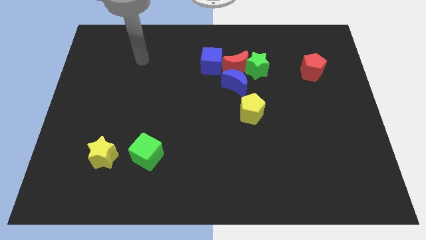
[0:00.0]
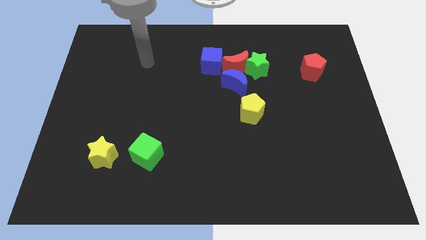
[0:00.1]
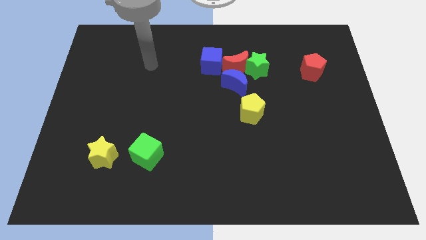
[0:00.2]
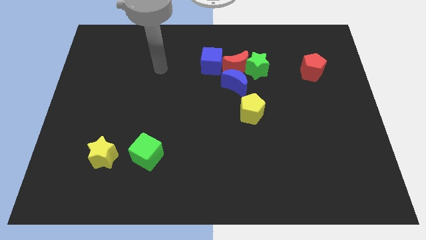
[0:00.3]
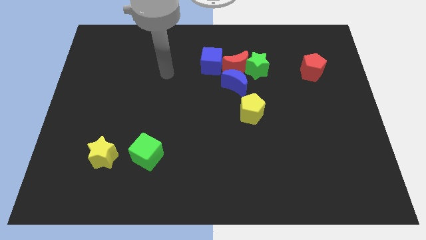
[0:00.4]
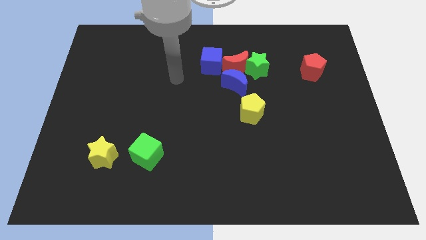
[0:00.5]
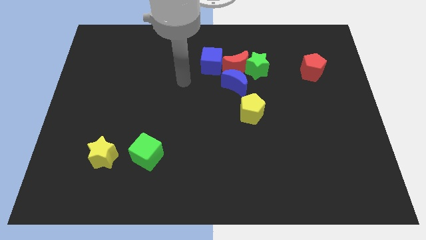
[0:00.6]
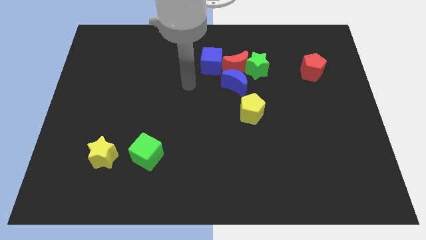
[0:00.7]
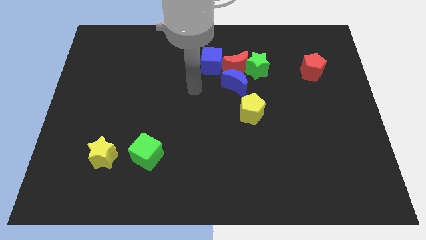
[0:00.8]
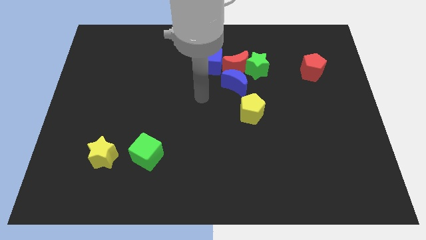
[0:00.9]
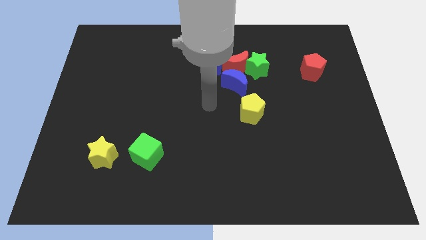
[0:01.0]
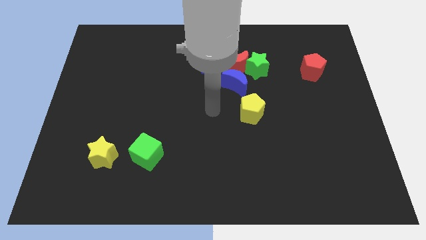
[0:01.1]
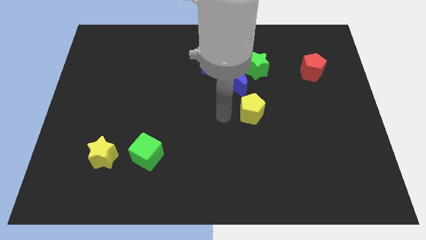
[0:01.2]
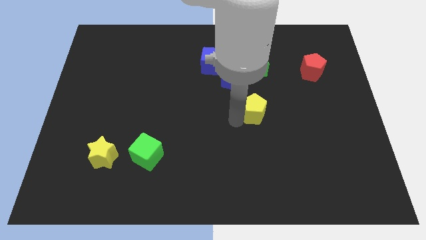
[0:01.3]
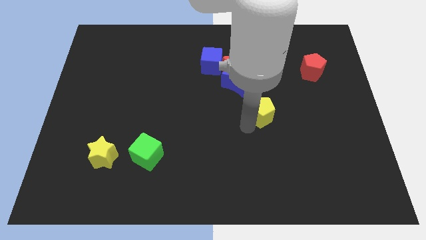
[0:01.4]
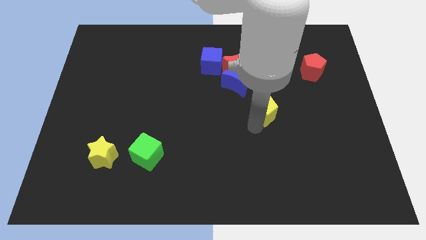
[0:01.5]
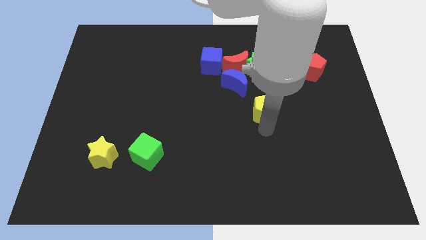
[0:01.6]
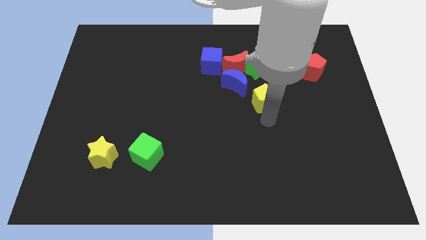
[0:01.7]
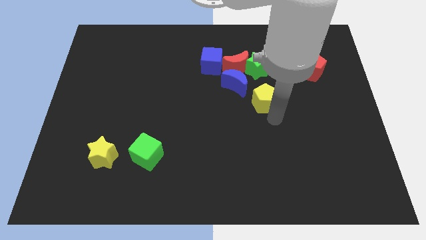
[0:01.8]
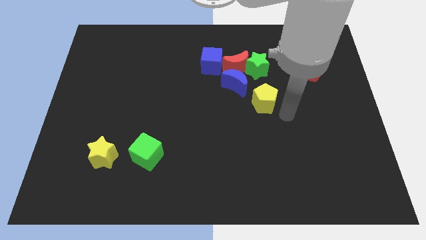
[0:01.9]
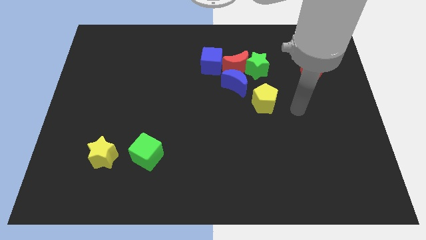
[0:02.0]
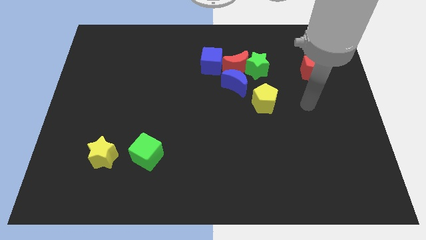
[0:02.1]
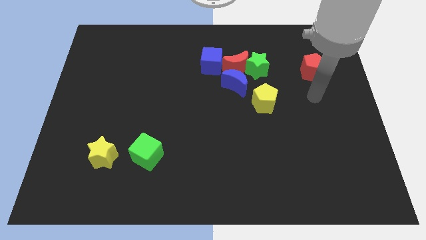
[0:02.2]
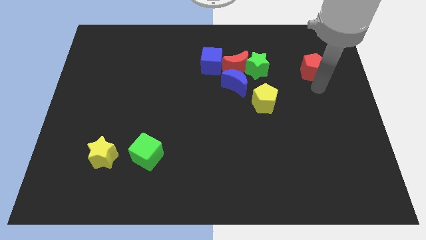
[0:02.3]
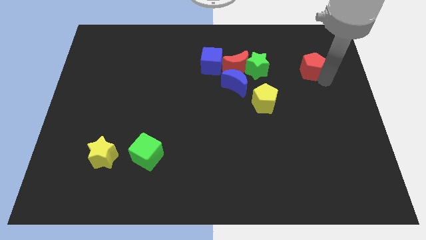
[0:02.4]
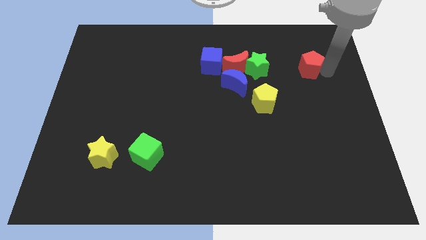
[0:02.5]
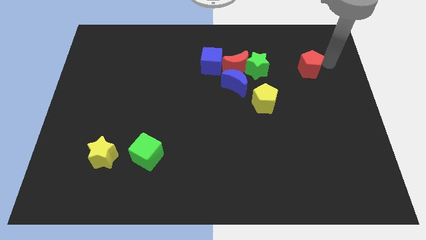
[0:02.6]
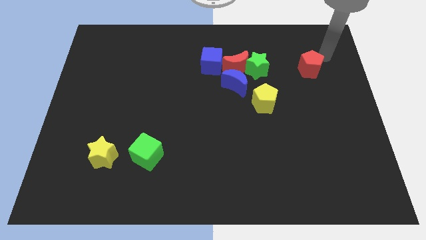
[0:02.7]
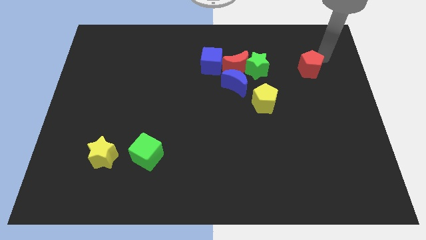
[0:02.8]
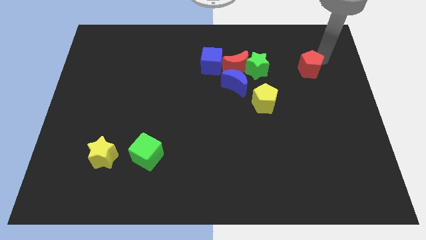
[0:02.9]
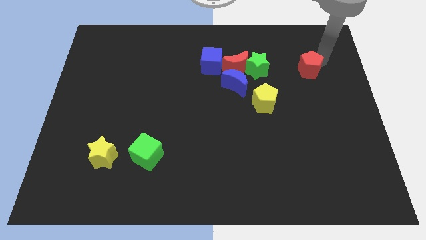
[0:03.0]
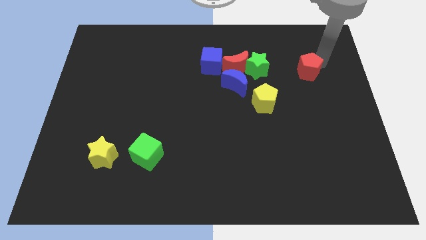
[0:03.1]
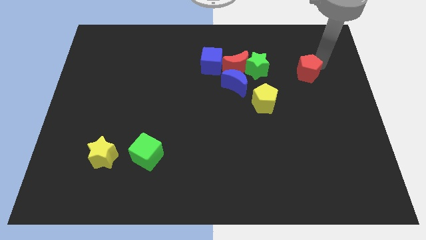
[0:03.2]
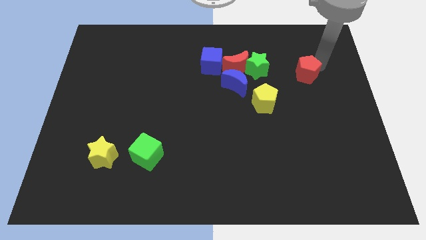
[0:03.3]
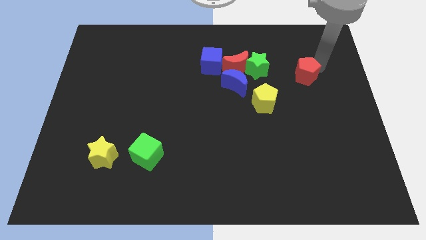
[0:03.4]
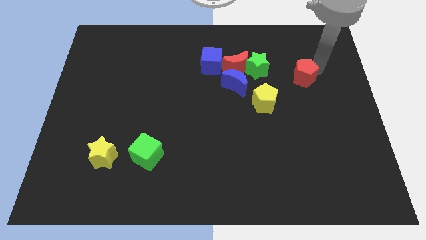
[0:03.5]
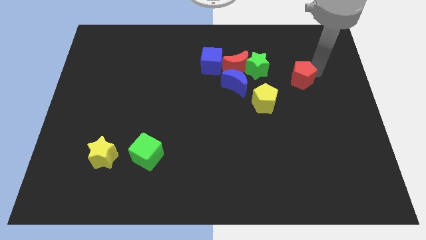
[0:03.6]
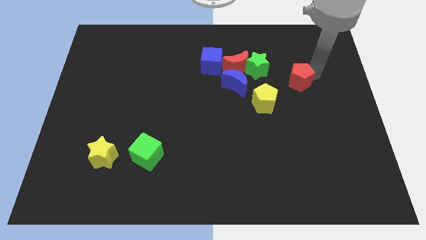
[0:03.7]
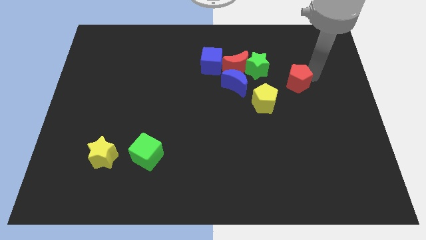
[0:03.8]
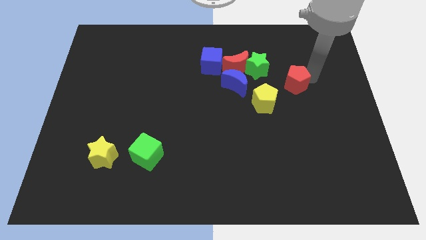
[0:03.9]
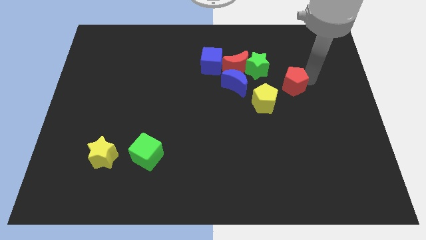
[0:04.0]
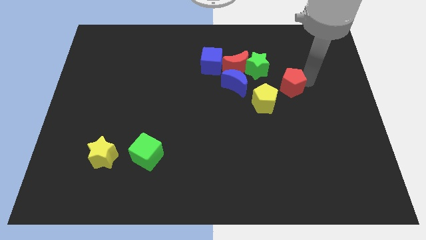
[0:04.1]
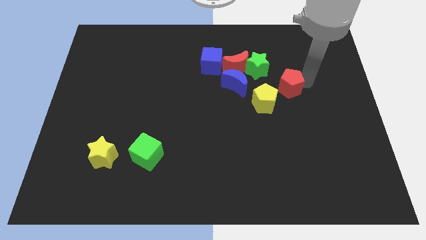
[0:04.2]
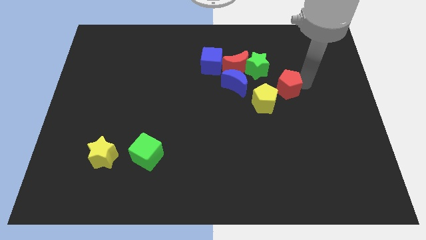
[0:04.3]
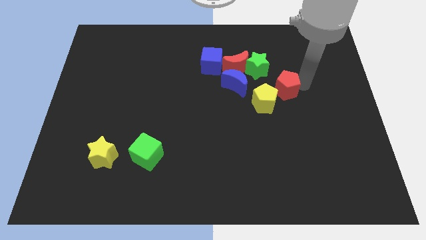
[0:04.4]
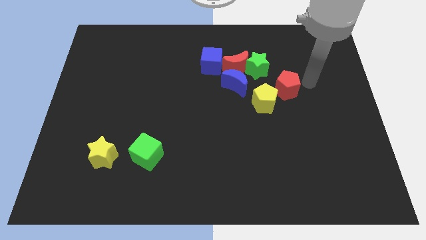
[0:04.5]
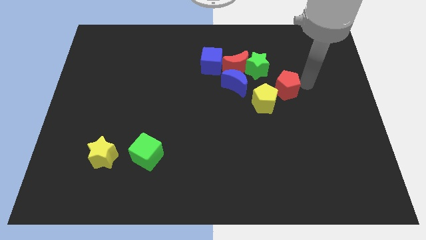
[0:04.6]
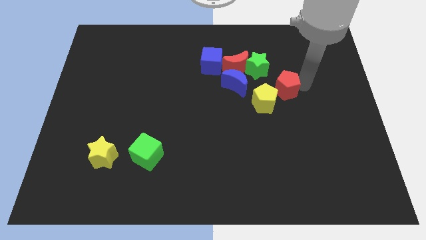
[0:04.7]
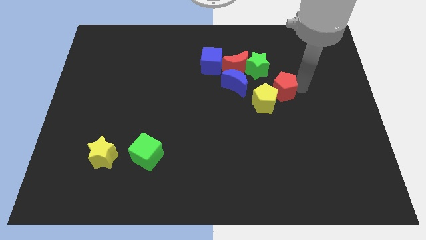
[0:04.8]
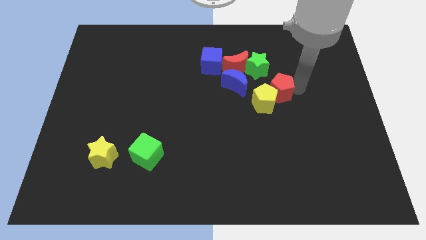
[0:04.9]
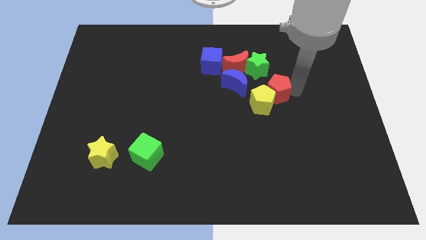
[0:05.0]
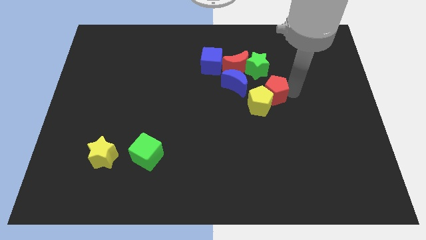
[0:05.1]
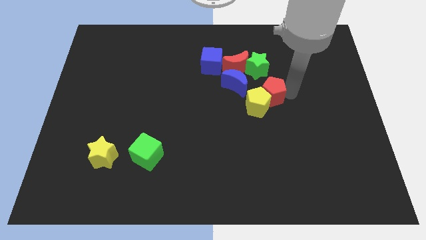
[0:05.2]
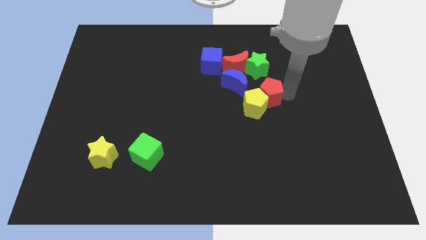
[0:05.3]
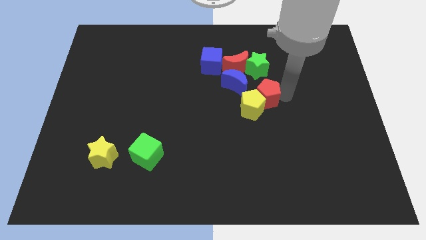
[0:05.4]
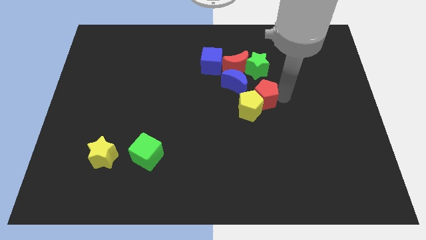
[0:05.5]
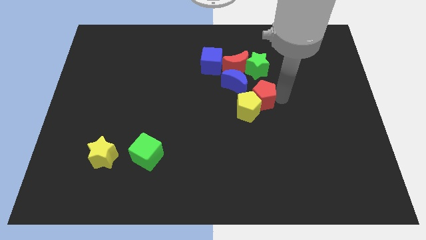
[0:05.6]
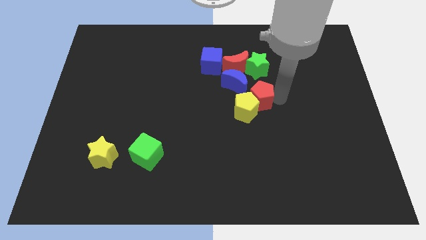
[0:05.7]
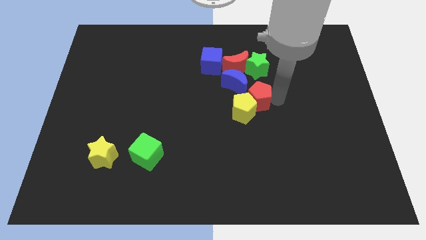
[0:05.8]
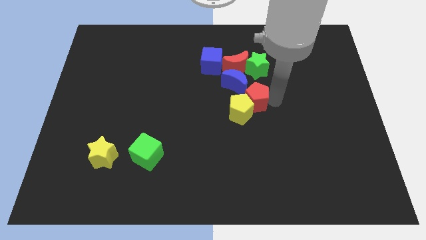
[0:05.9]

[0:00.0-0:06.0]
slide the red pentagon to the bottom side of the blue moon
